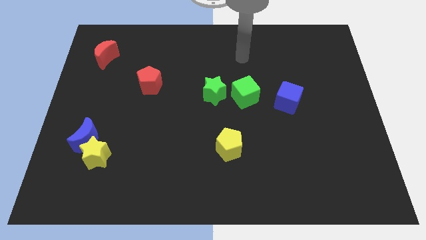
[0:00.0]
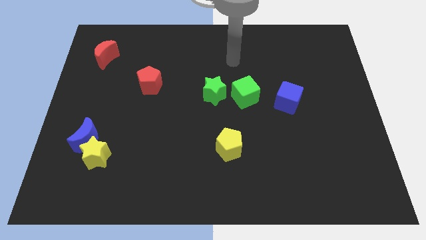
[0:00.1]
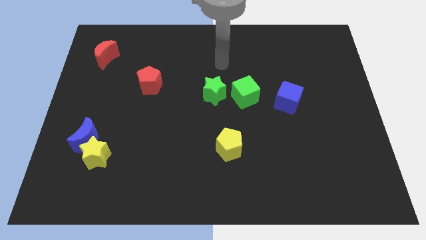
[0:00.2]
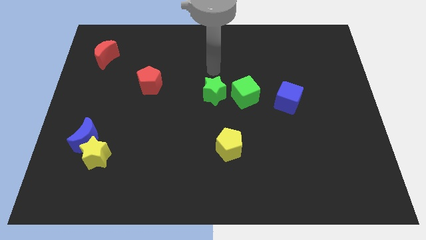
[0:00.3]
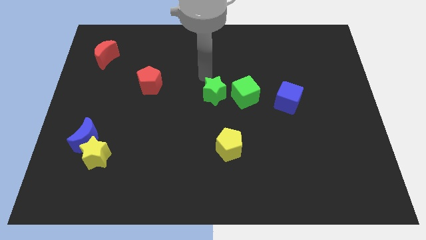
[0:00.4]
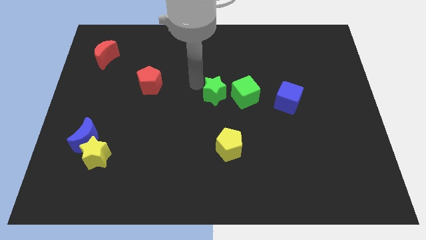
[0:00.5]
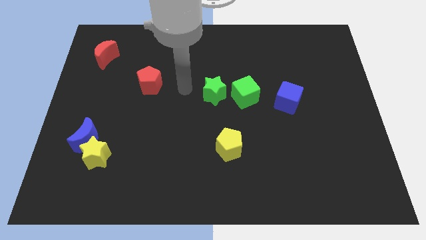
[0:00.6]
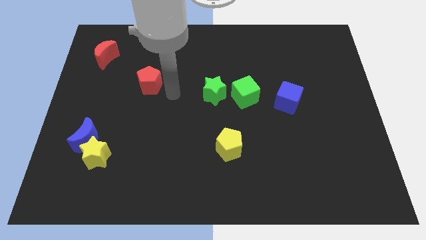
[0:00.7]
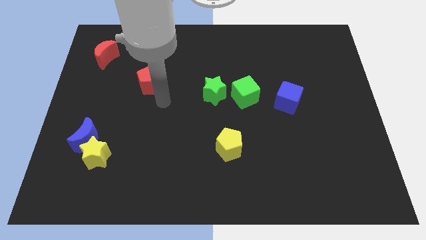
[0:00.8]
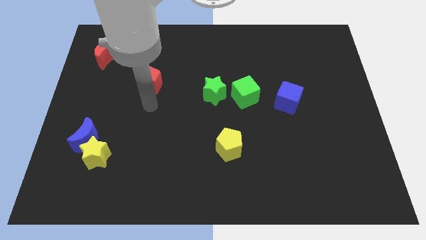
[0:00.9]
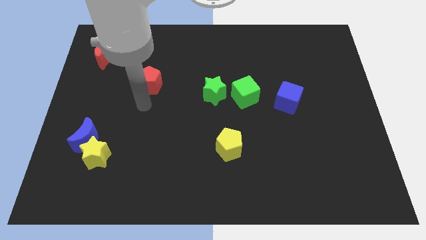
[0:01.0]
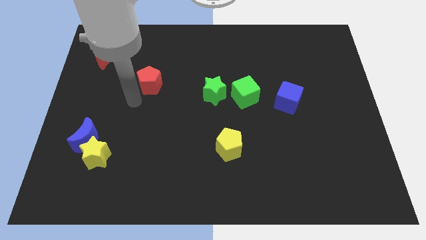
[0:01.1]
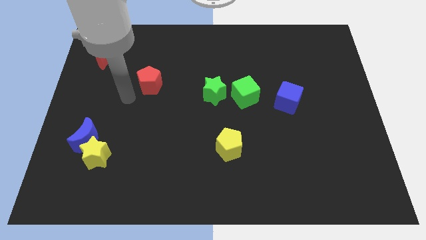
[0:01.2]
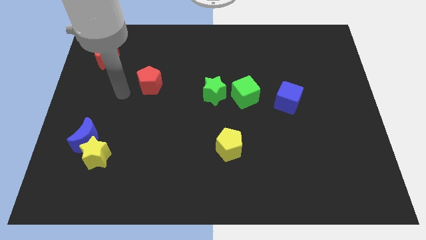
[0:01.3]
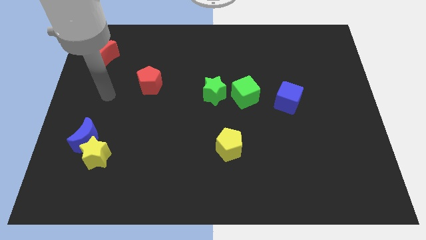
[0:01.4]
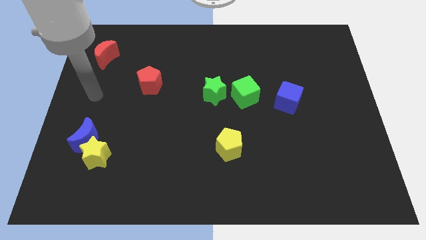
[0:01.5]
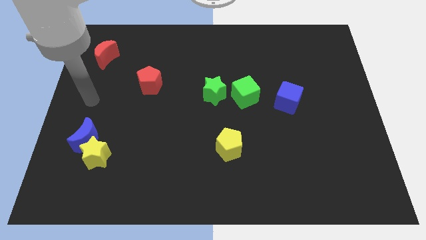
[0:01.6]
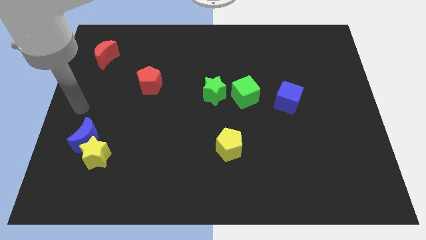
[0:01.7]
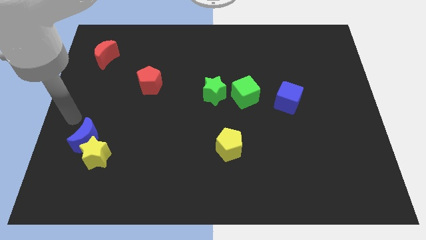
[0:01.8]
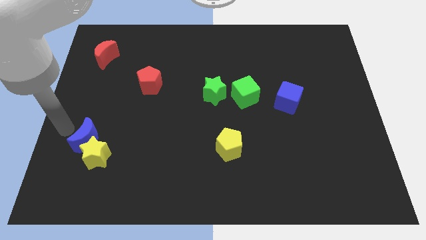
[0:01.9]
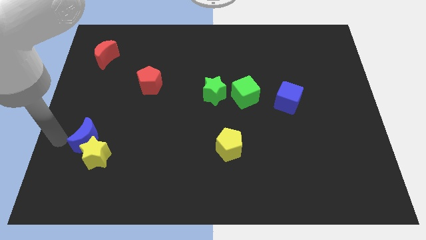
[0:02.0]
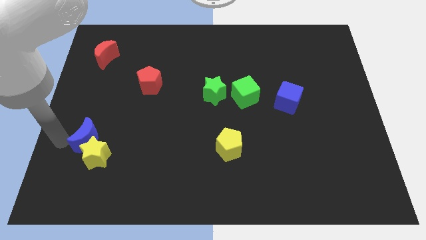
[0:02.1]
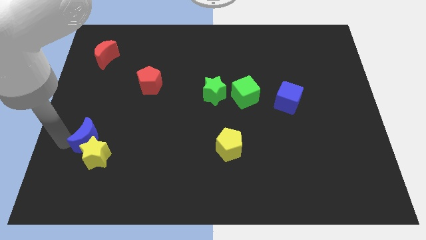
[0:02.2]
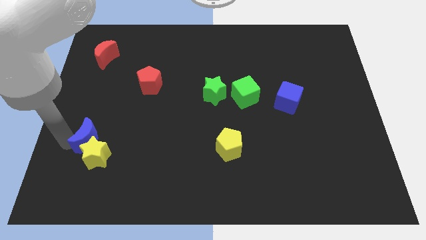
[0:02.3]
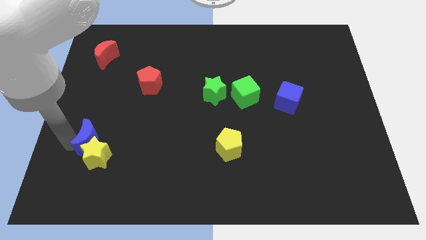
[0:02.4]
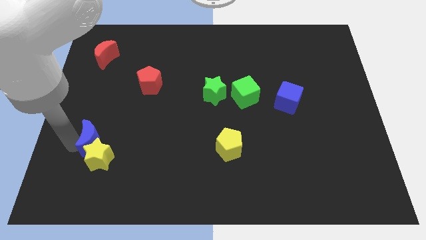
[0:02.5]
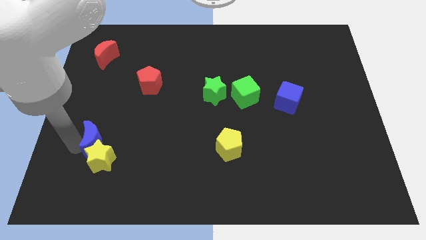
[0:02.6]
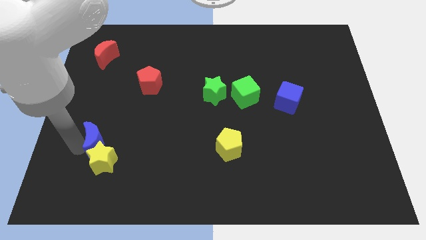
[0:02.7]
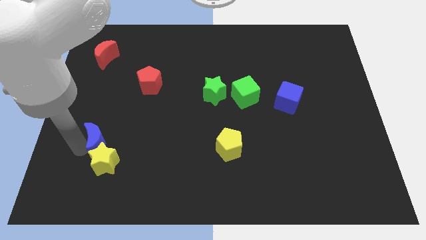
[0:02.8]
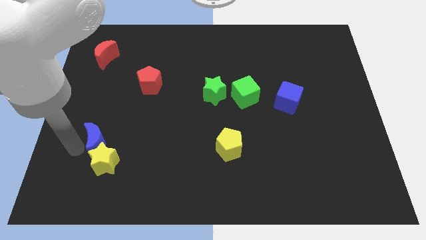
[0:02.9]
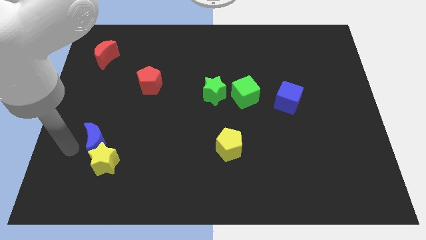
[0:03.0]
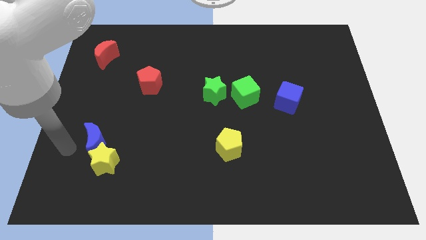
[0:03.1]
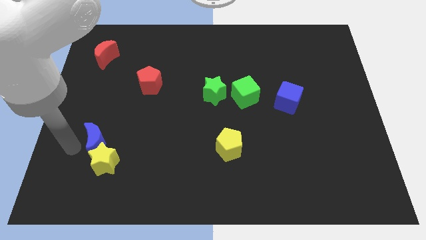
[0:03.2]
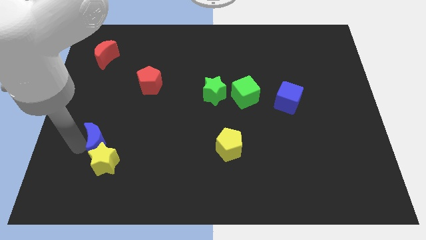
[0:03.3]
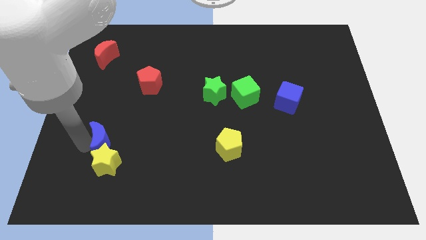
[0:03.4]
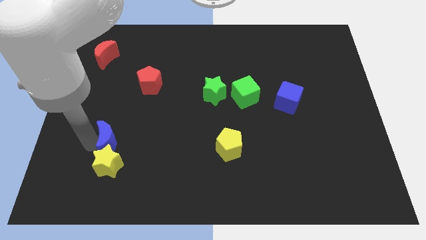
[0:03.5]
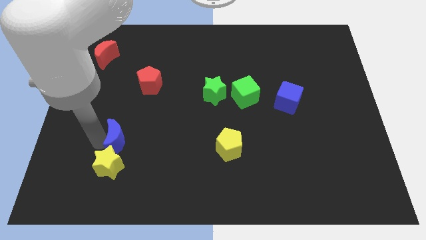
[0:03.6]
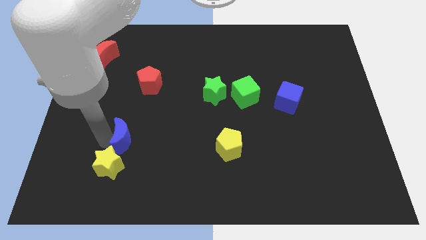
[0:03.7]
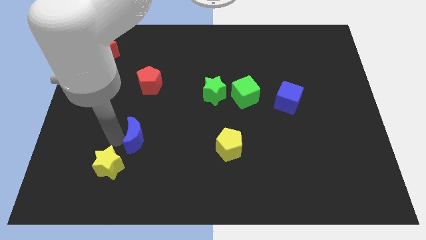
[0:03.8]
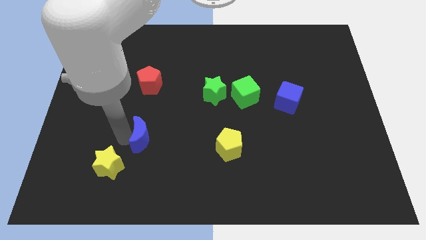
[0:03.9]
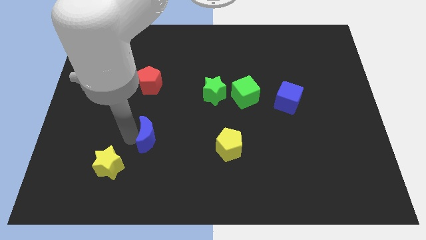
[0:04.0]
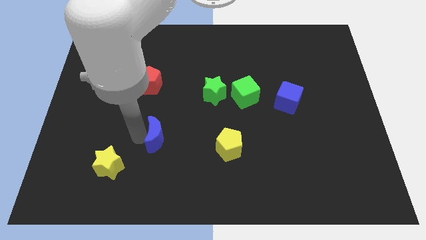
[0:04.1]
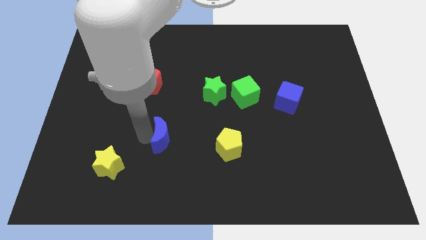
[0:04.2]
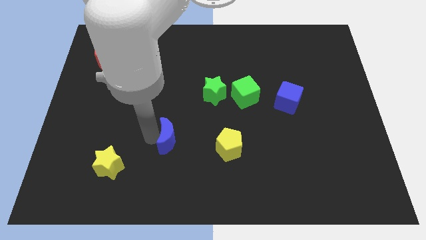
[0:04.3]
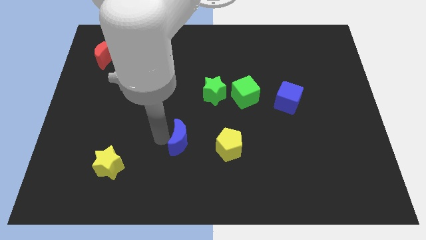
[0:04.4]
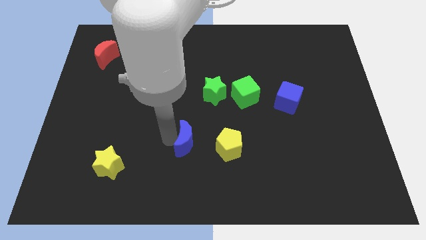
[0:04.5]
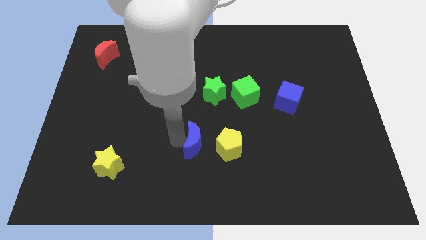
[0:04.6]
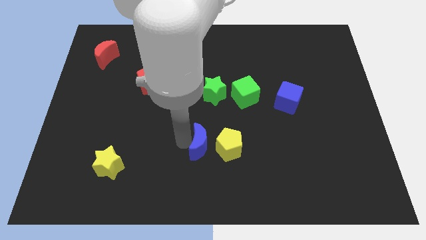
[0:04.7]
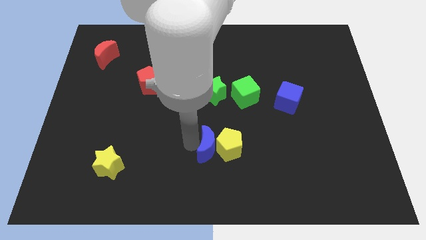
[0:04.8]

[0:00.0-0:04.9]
slide the blue moon towards the yellow pentagon

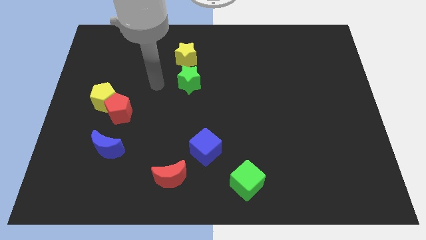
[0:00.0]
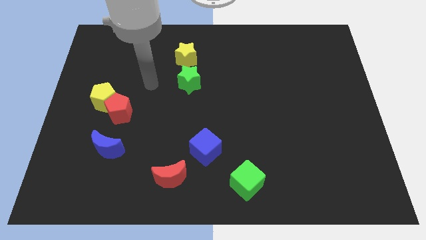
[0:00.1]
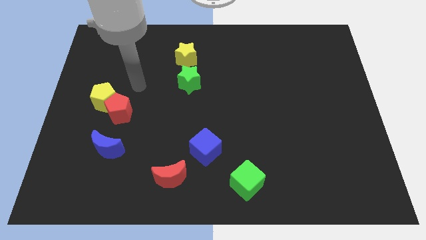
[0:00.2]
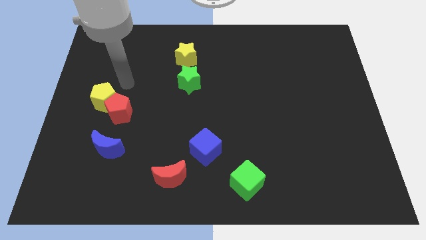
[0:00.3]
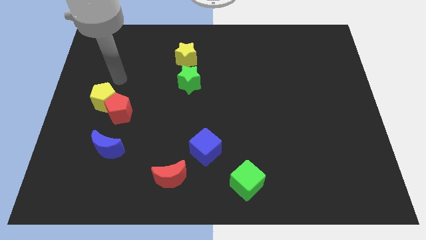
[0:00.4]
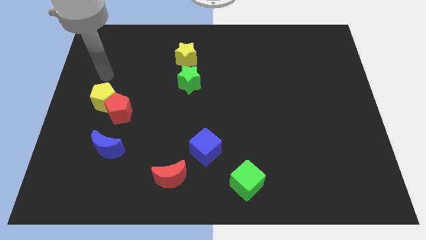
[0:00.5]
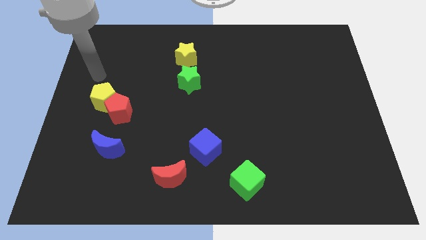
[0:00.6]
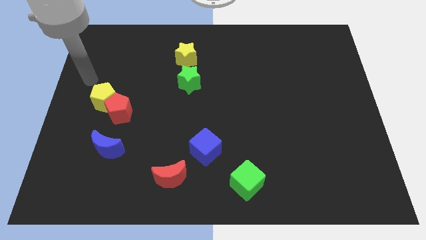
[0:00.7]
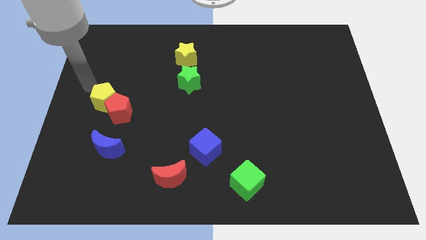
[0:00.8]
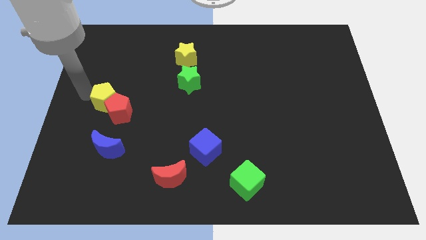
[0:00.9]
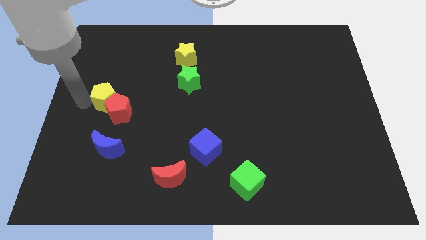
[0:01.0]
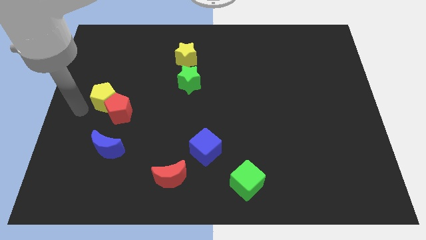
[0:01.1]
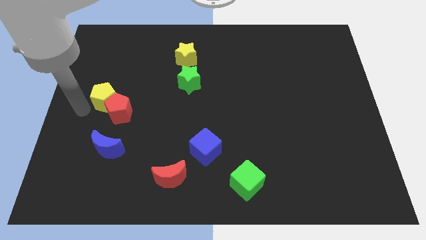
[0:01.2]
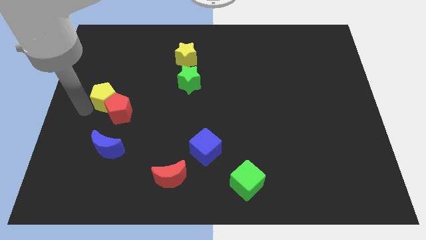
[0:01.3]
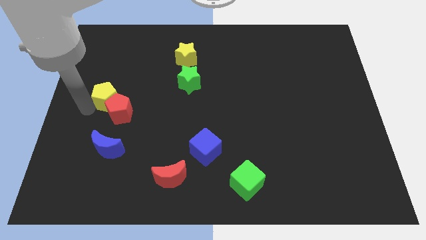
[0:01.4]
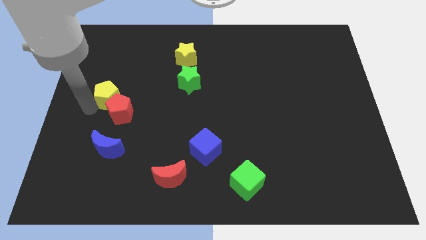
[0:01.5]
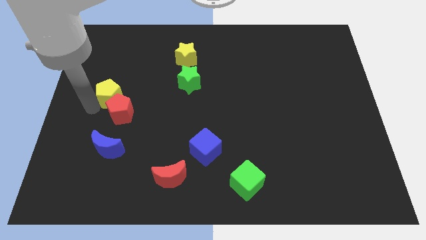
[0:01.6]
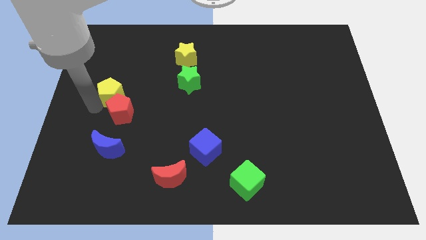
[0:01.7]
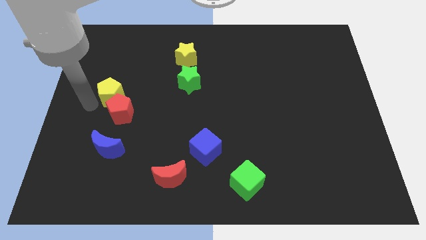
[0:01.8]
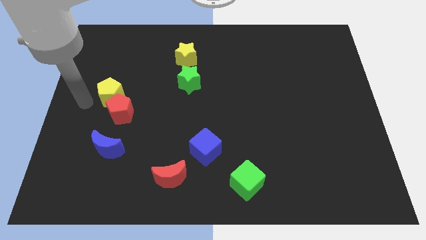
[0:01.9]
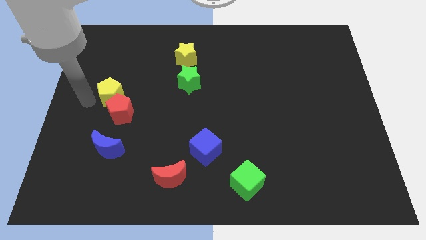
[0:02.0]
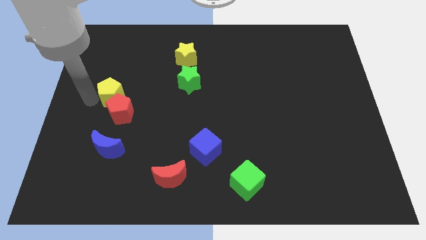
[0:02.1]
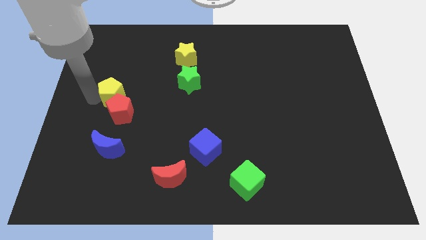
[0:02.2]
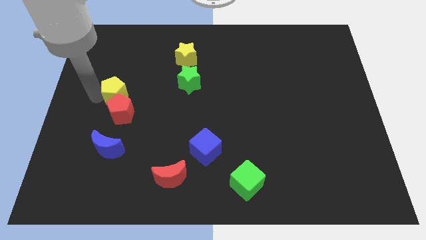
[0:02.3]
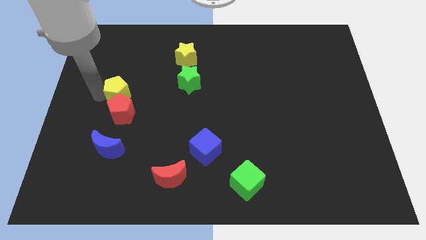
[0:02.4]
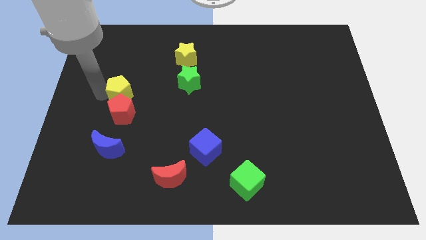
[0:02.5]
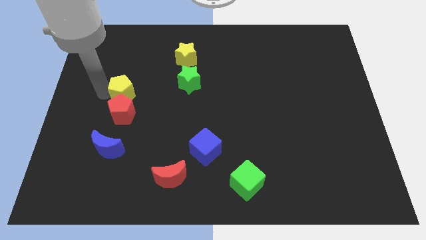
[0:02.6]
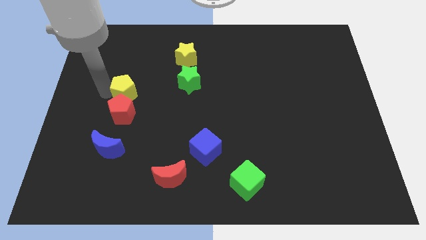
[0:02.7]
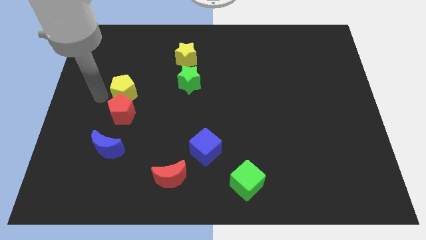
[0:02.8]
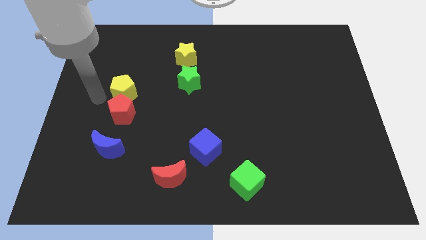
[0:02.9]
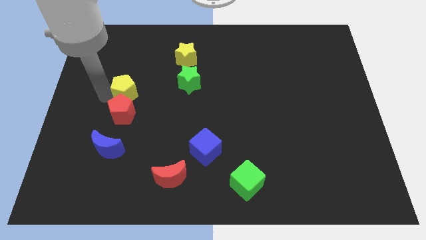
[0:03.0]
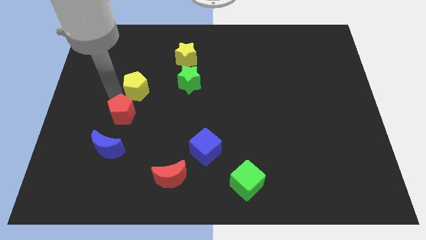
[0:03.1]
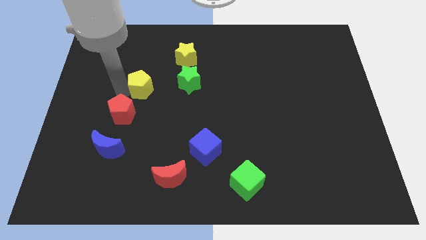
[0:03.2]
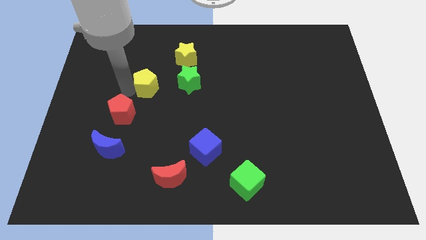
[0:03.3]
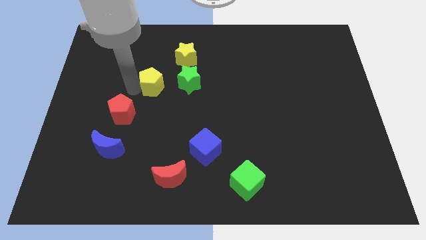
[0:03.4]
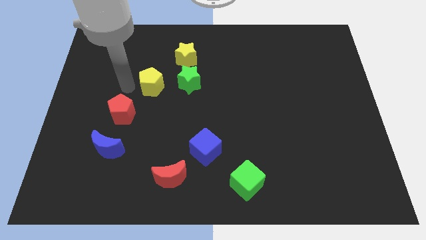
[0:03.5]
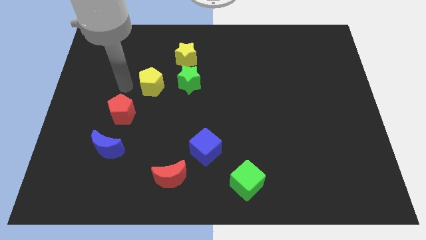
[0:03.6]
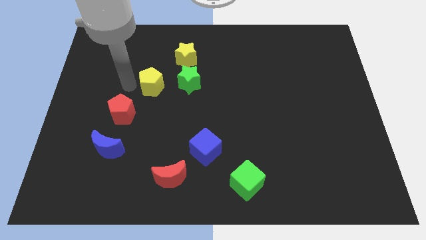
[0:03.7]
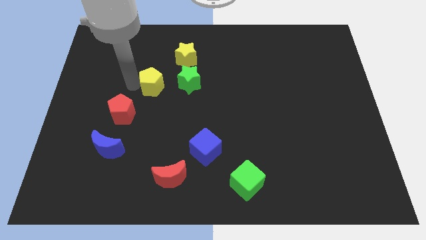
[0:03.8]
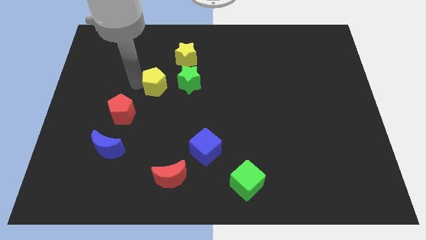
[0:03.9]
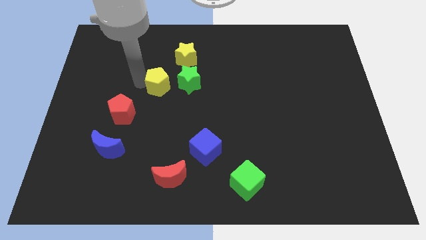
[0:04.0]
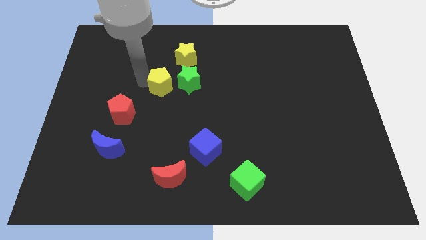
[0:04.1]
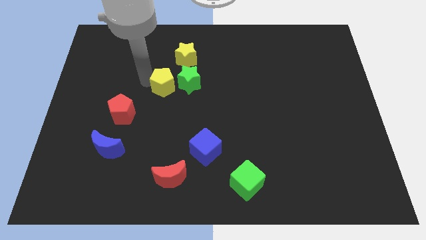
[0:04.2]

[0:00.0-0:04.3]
put the yellow pentagon to the green star
